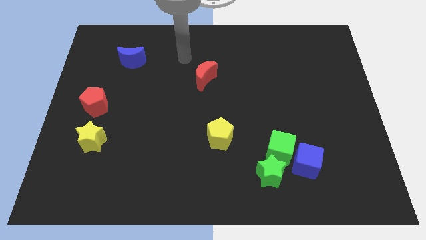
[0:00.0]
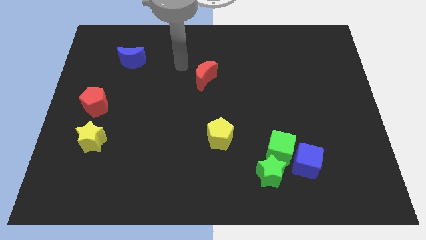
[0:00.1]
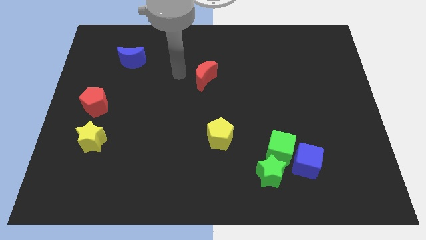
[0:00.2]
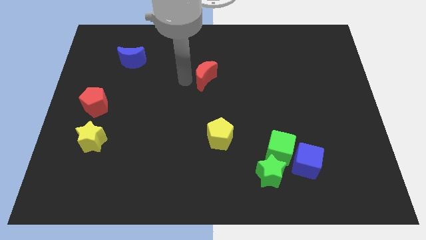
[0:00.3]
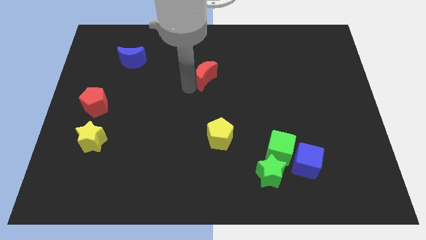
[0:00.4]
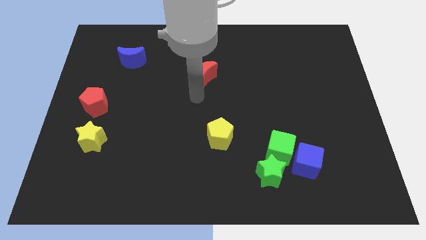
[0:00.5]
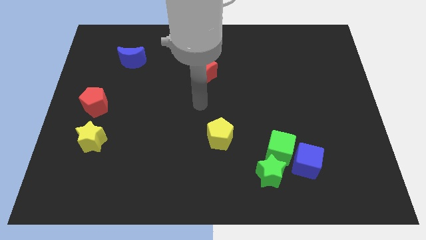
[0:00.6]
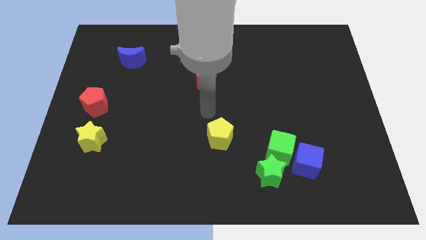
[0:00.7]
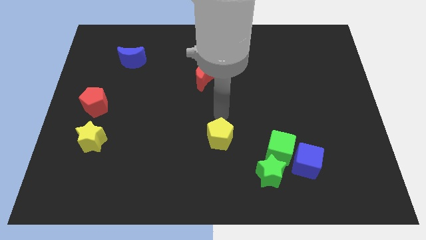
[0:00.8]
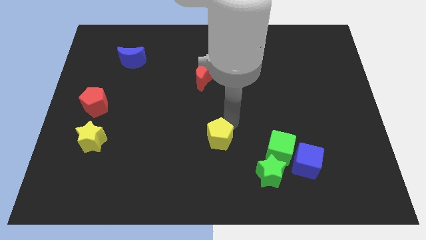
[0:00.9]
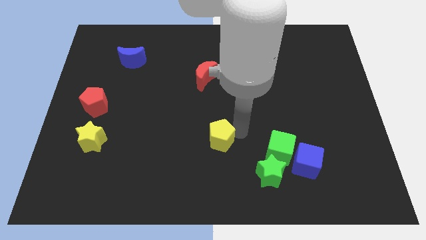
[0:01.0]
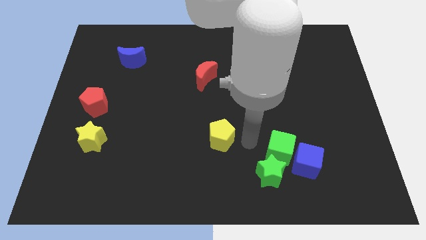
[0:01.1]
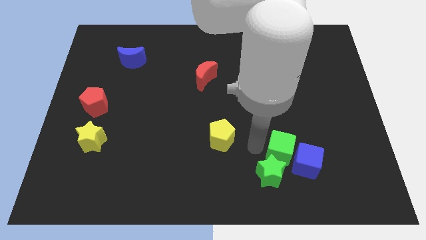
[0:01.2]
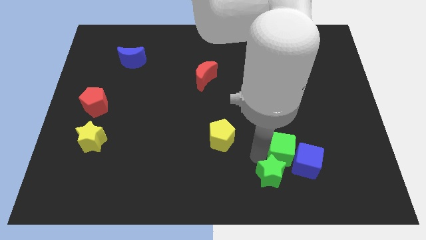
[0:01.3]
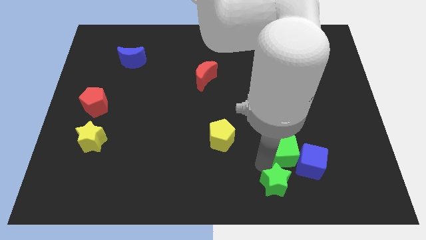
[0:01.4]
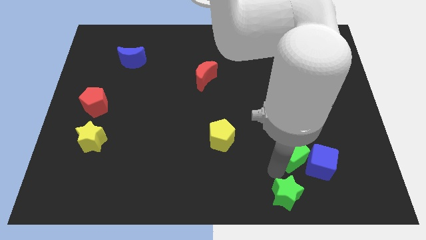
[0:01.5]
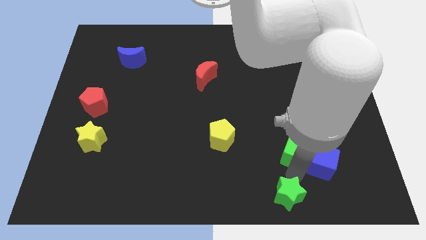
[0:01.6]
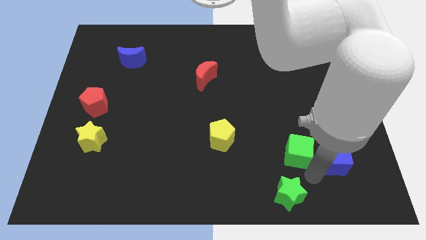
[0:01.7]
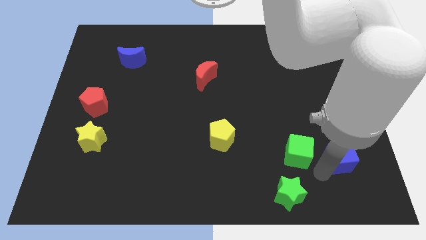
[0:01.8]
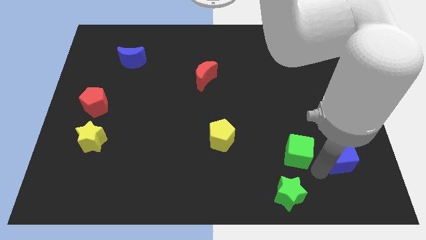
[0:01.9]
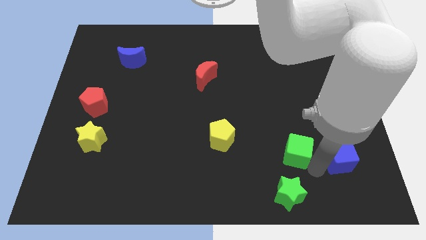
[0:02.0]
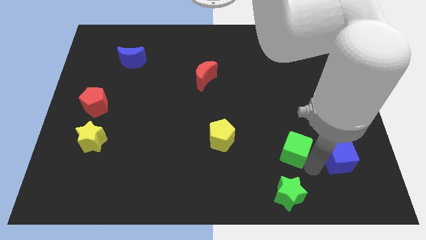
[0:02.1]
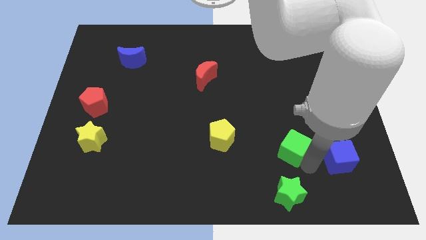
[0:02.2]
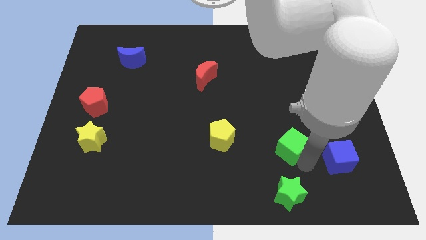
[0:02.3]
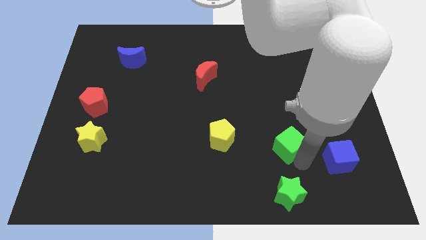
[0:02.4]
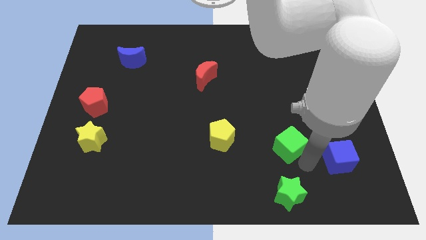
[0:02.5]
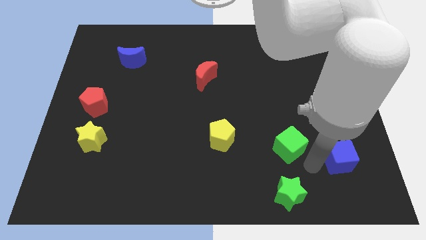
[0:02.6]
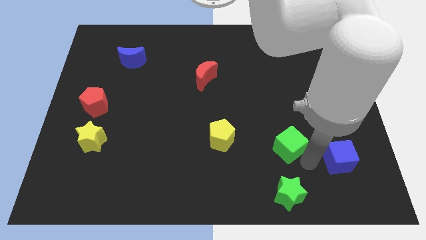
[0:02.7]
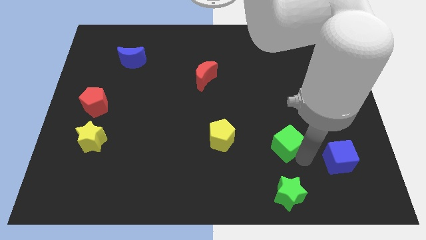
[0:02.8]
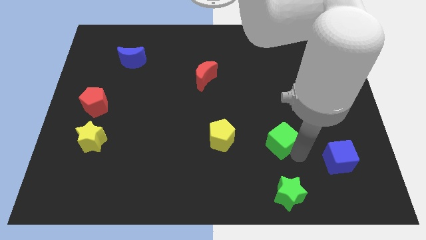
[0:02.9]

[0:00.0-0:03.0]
pull the green cube apart from the green star and blue cube

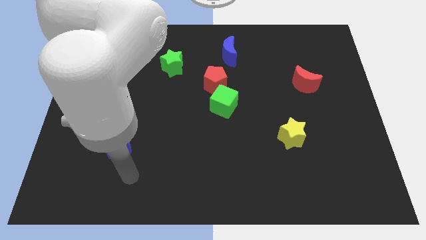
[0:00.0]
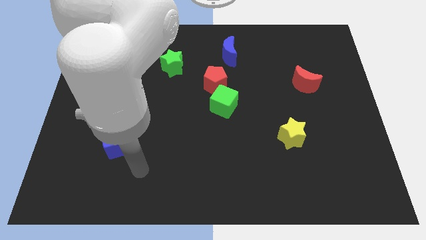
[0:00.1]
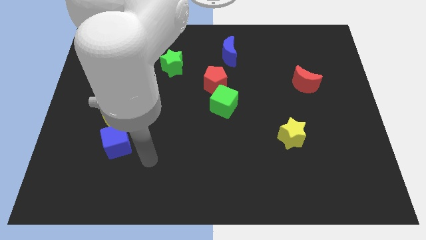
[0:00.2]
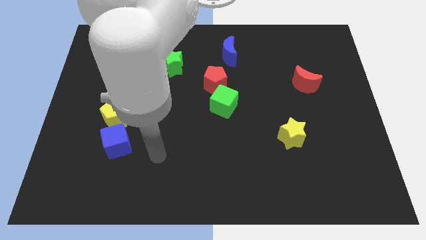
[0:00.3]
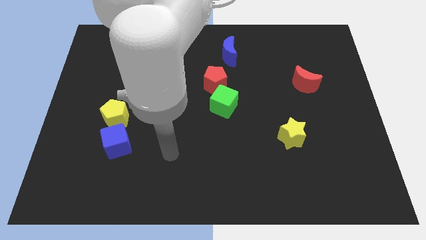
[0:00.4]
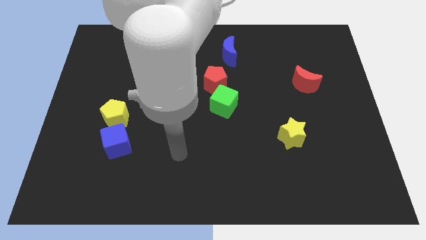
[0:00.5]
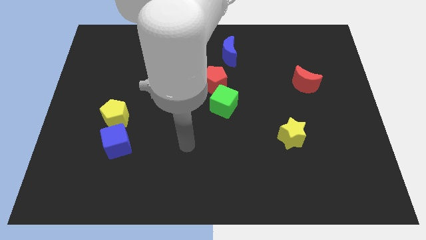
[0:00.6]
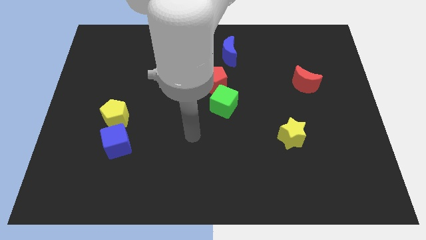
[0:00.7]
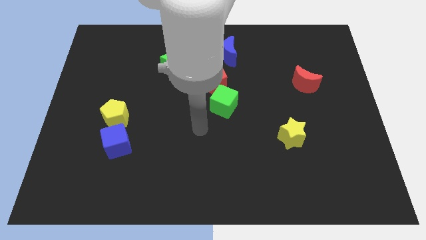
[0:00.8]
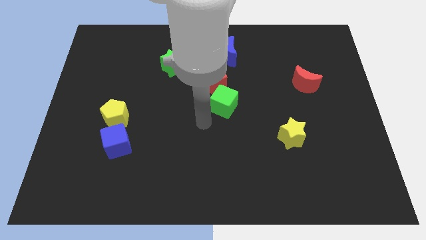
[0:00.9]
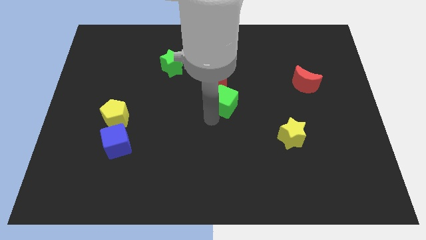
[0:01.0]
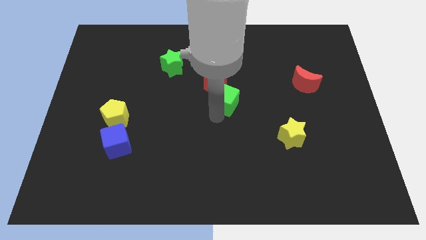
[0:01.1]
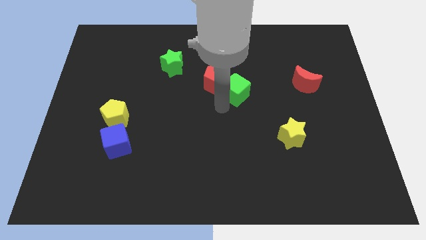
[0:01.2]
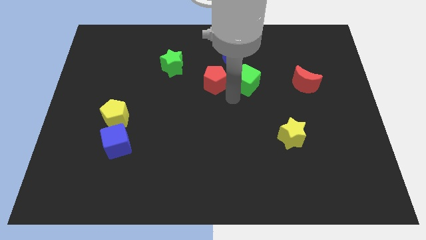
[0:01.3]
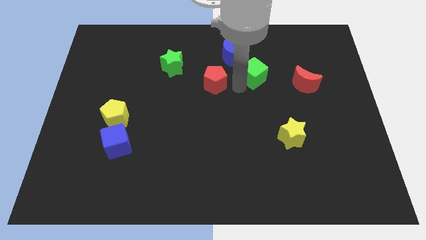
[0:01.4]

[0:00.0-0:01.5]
pull the red pentagon apart from the green cube

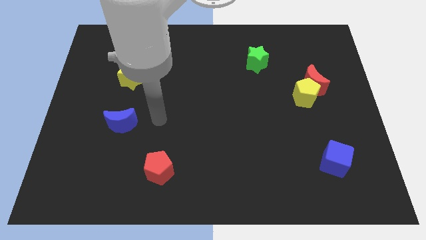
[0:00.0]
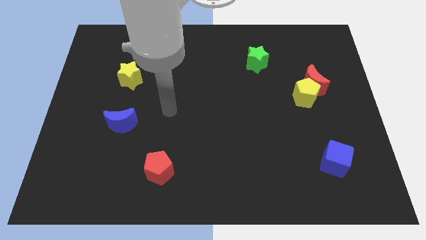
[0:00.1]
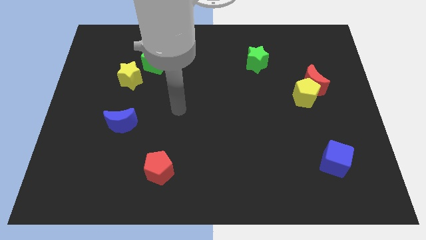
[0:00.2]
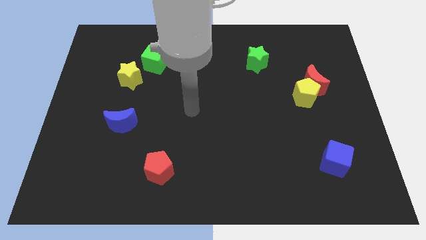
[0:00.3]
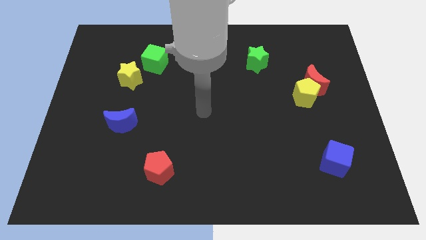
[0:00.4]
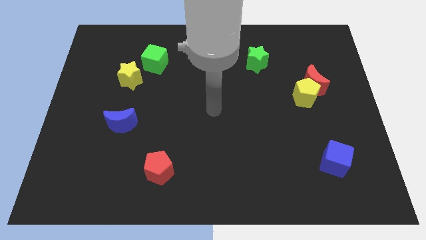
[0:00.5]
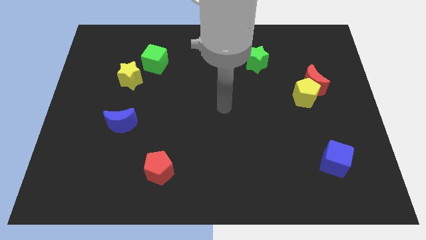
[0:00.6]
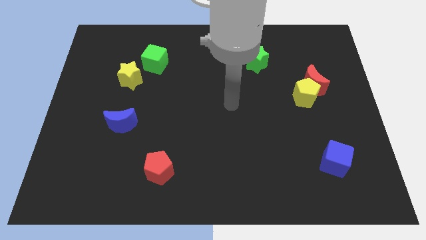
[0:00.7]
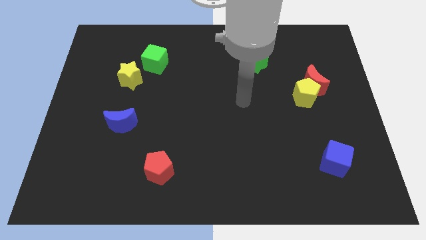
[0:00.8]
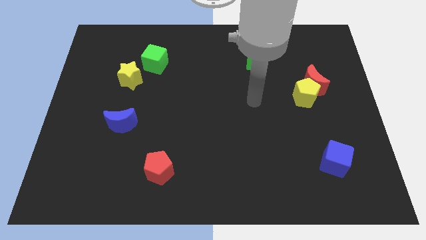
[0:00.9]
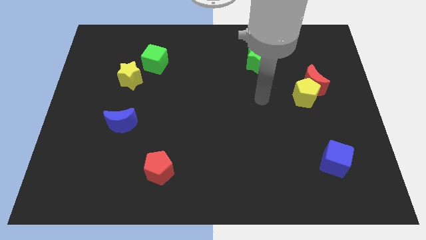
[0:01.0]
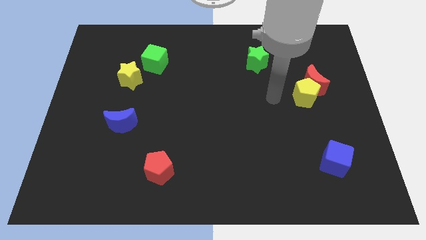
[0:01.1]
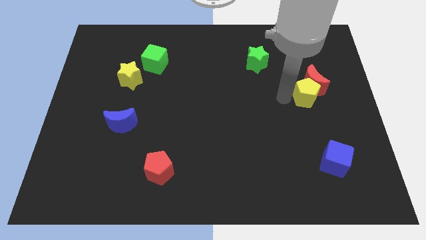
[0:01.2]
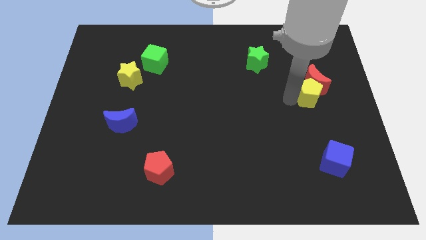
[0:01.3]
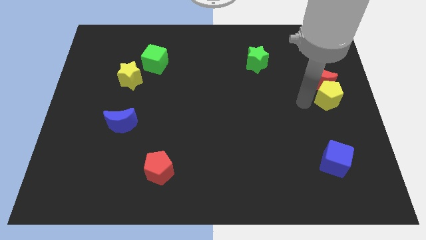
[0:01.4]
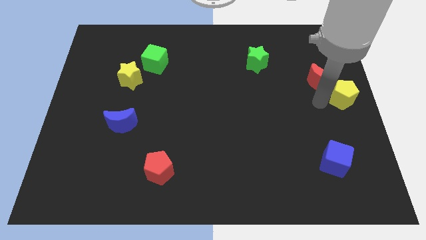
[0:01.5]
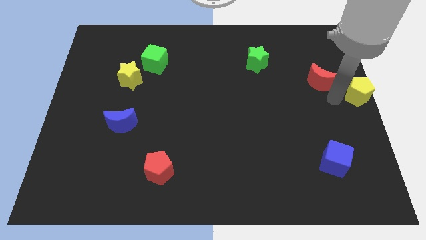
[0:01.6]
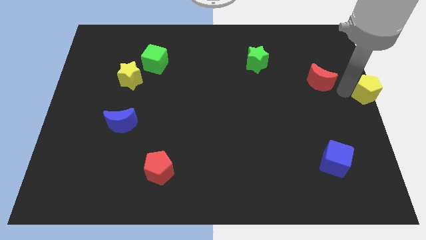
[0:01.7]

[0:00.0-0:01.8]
move the red moon away from the yellow pentagon

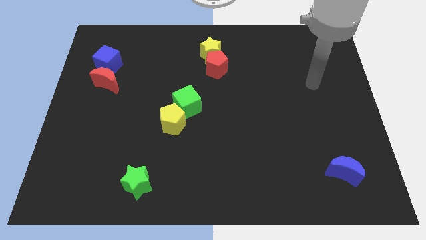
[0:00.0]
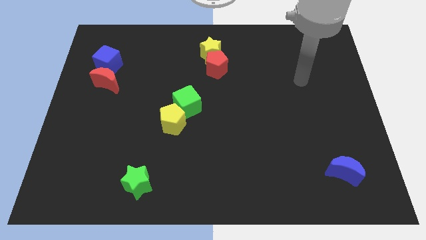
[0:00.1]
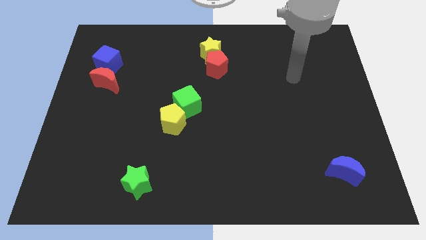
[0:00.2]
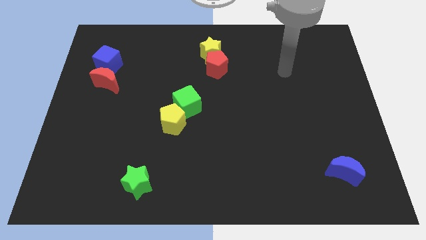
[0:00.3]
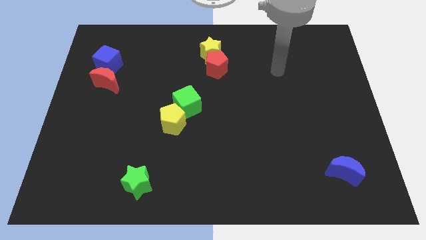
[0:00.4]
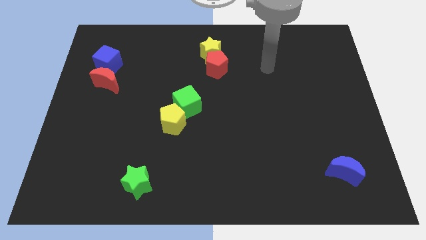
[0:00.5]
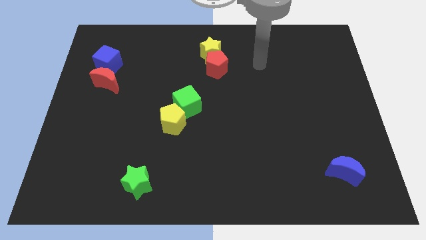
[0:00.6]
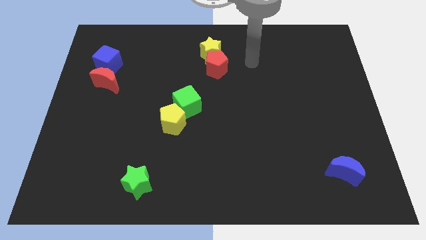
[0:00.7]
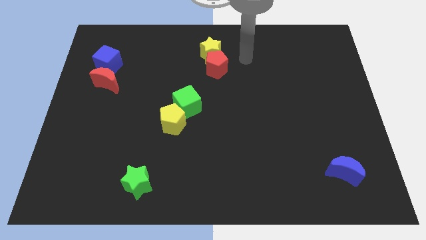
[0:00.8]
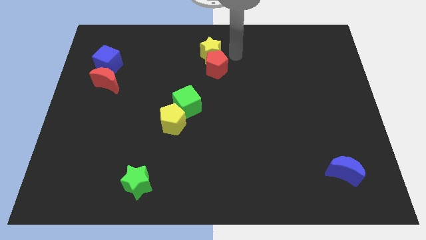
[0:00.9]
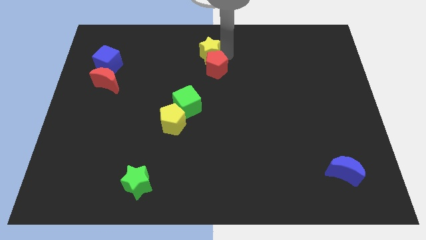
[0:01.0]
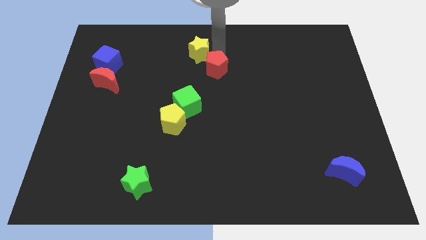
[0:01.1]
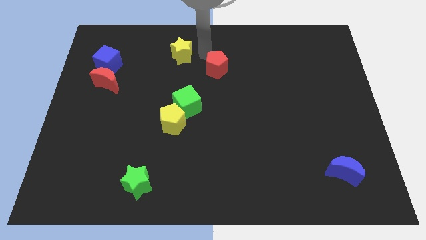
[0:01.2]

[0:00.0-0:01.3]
move the red pentagon away from the yellow star

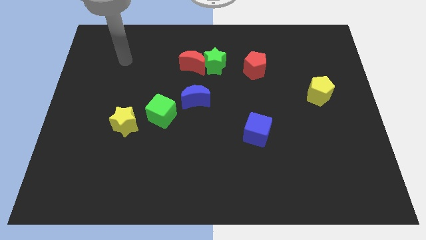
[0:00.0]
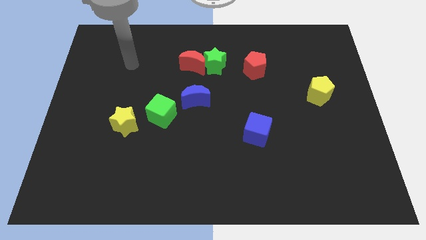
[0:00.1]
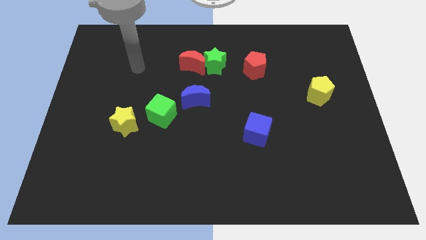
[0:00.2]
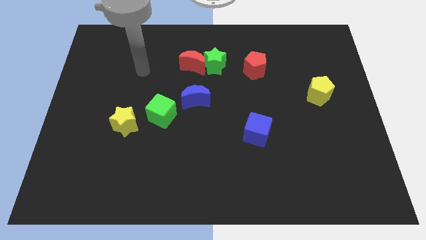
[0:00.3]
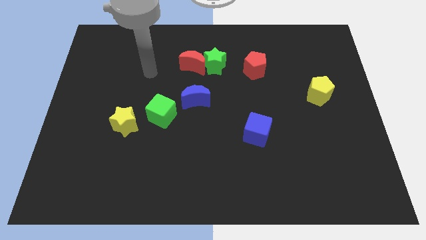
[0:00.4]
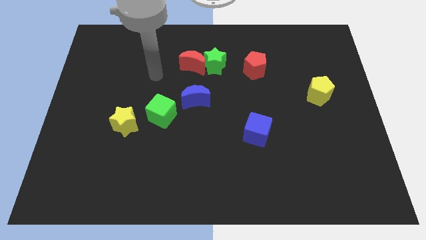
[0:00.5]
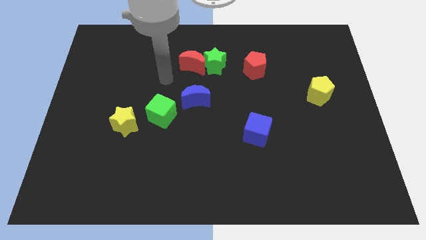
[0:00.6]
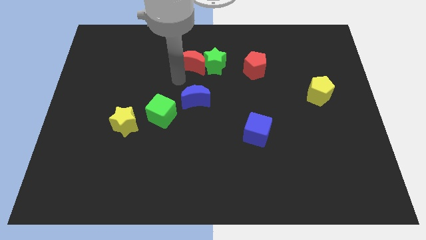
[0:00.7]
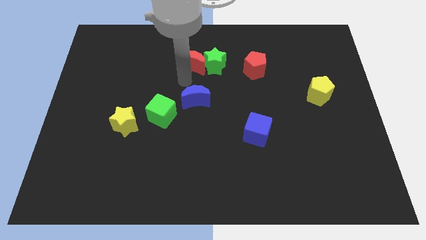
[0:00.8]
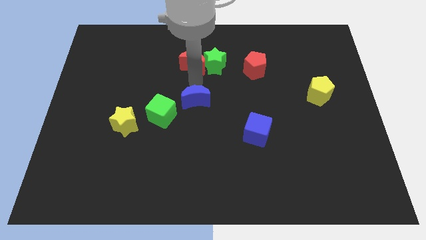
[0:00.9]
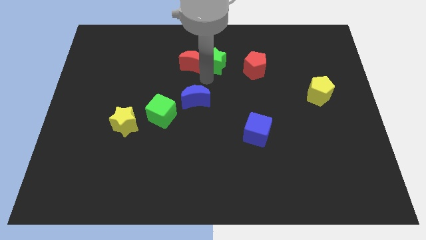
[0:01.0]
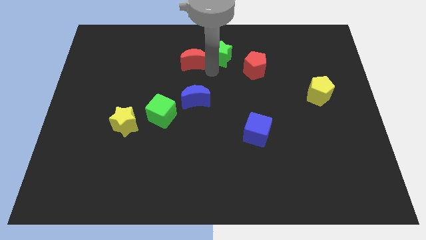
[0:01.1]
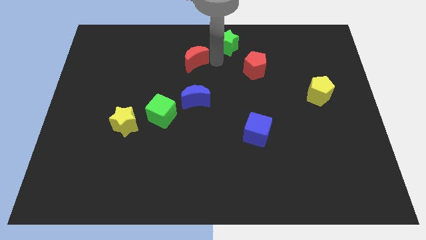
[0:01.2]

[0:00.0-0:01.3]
pull the red moon apart from the green star

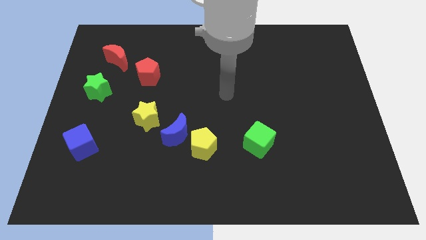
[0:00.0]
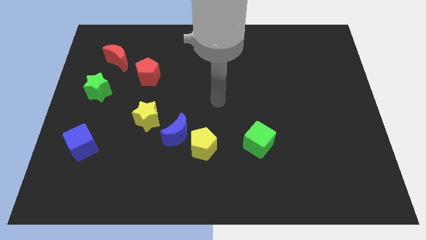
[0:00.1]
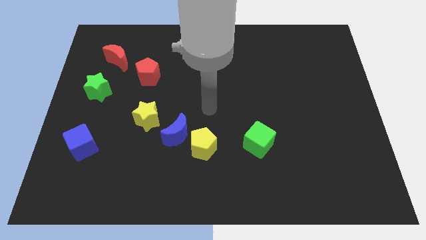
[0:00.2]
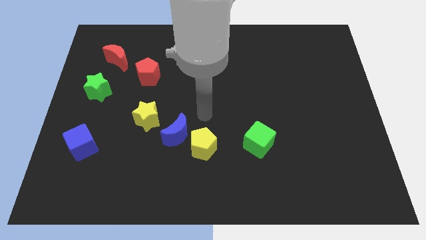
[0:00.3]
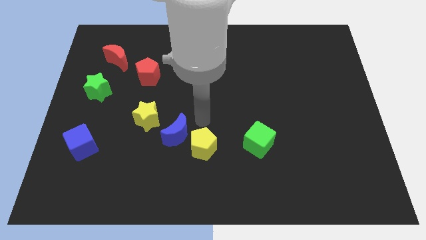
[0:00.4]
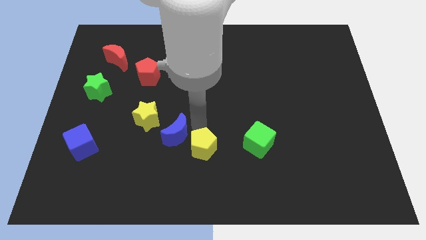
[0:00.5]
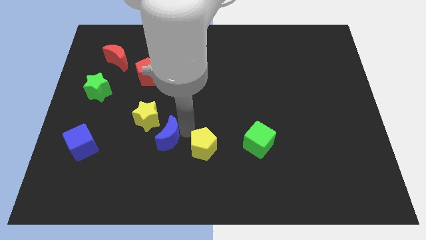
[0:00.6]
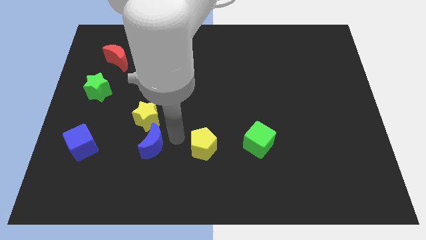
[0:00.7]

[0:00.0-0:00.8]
move the yellow pentagon away from the blue moon
